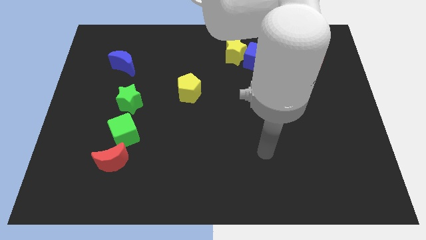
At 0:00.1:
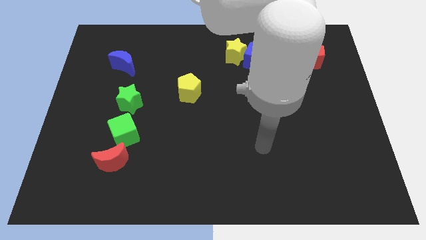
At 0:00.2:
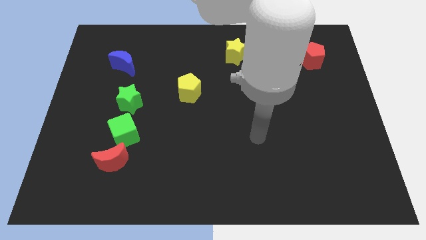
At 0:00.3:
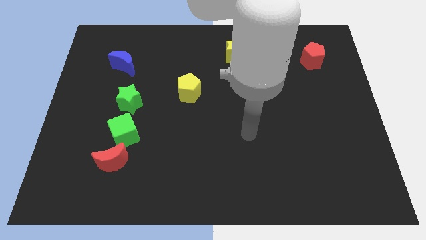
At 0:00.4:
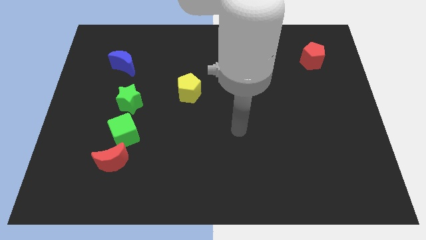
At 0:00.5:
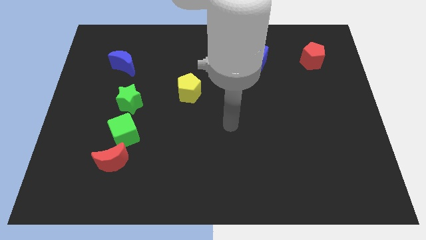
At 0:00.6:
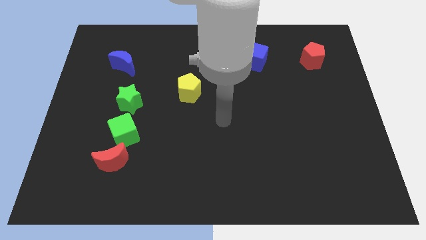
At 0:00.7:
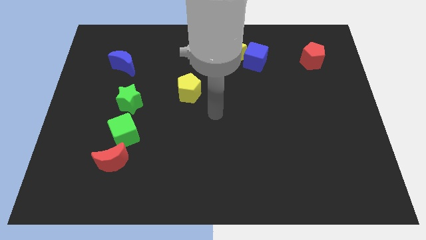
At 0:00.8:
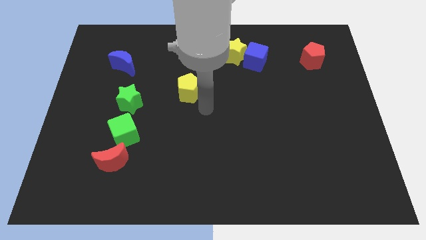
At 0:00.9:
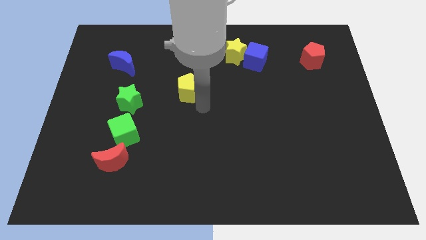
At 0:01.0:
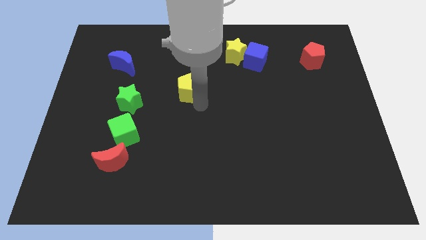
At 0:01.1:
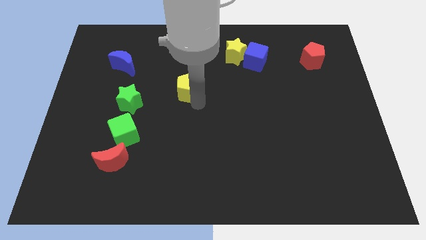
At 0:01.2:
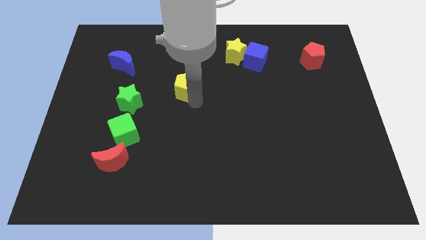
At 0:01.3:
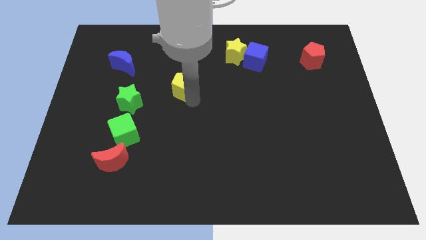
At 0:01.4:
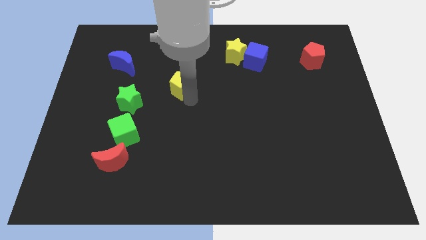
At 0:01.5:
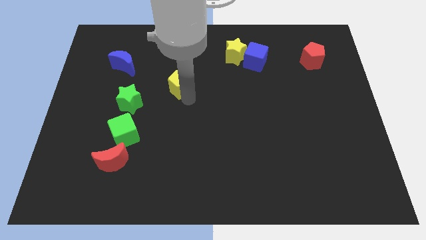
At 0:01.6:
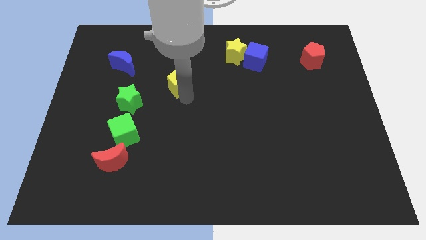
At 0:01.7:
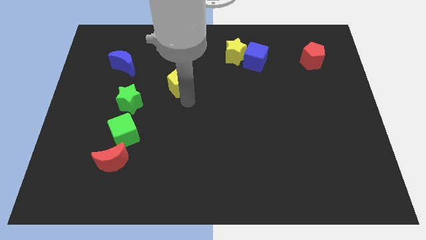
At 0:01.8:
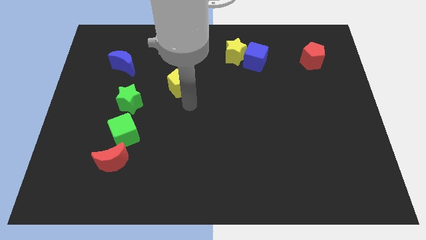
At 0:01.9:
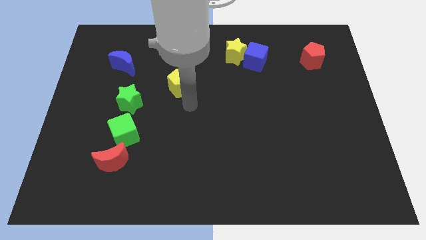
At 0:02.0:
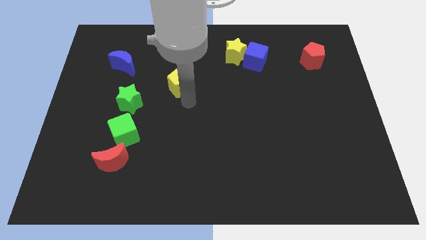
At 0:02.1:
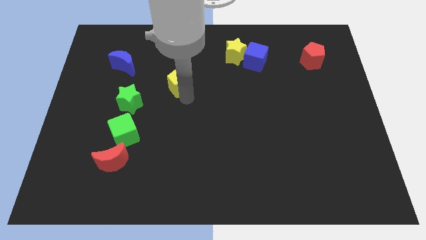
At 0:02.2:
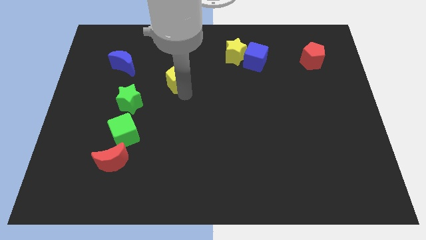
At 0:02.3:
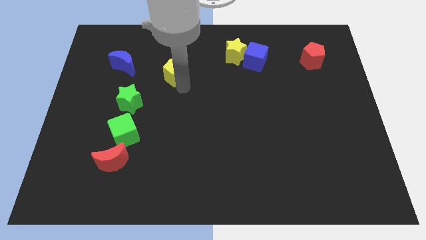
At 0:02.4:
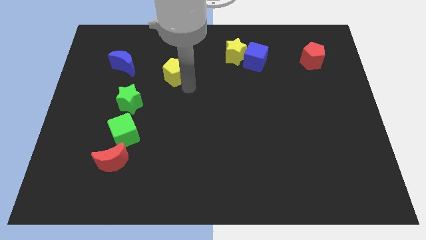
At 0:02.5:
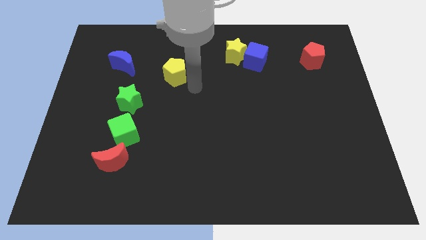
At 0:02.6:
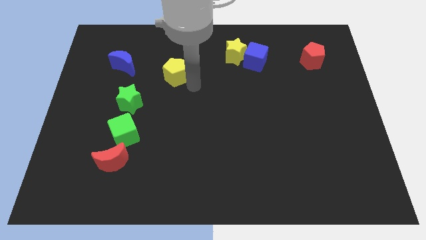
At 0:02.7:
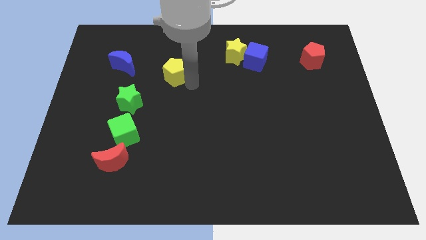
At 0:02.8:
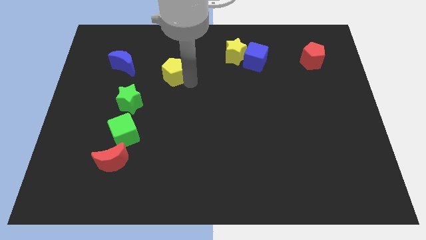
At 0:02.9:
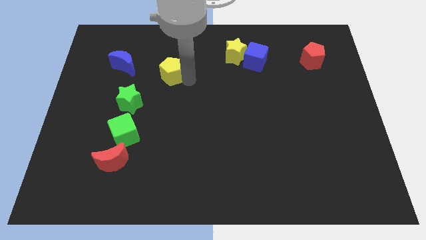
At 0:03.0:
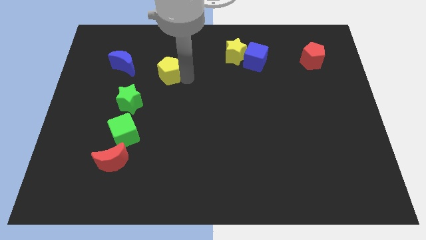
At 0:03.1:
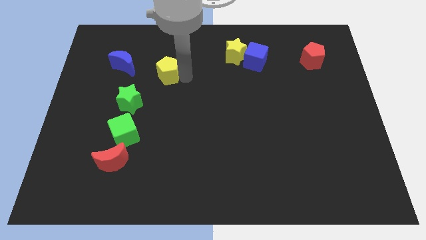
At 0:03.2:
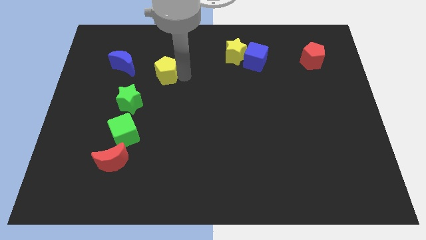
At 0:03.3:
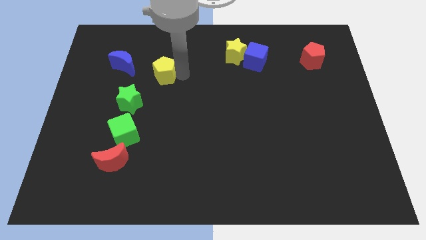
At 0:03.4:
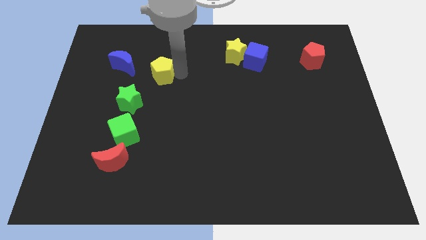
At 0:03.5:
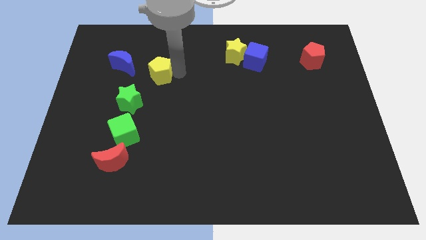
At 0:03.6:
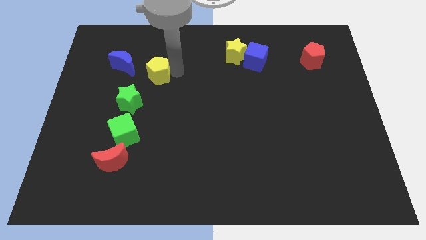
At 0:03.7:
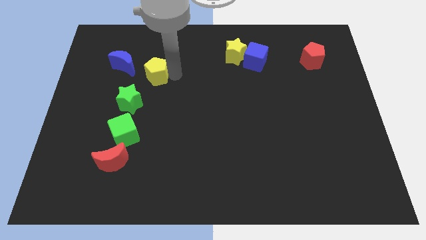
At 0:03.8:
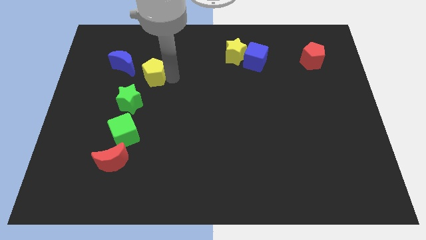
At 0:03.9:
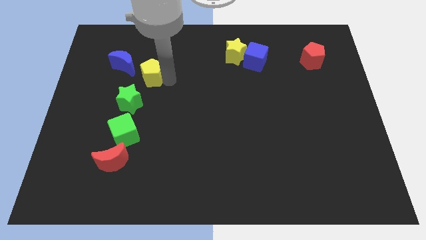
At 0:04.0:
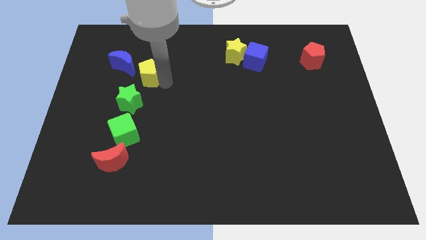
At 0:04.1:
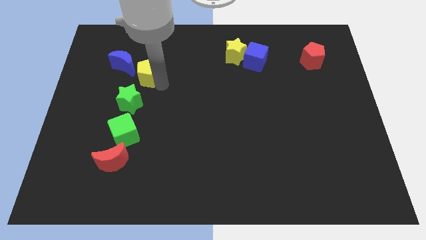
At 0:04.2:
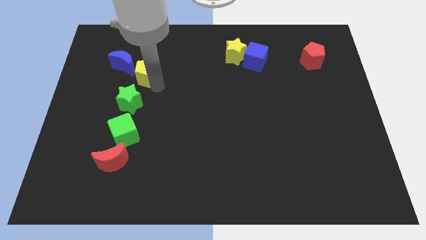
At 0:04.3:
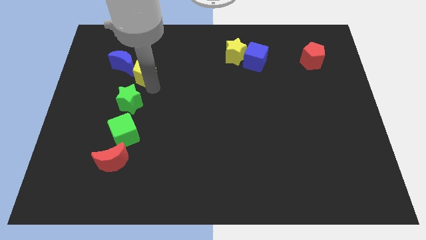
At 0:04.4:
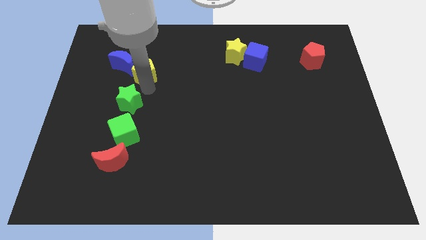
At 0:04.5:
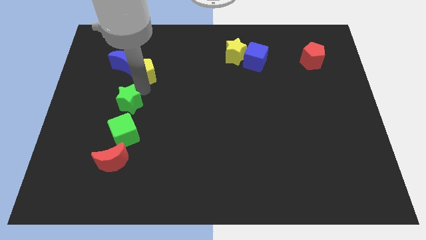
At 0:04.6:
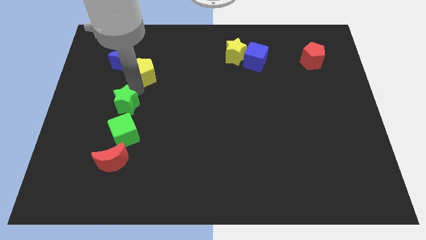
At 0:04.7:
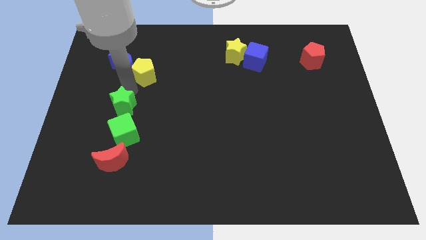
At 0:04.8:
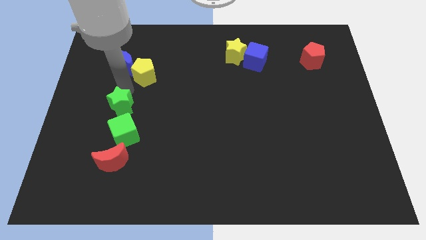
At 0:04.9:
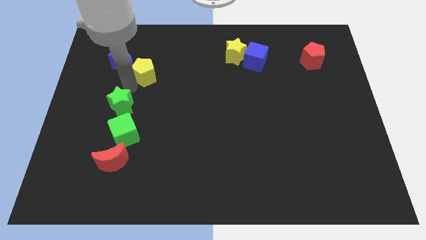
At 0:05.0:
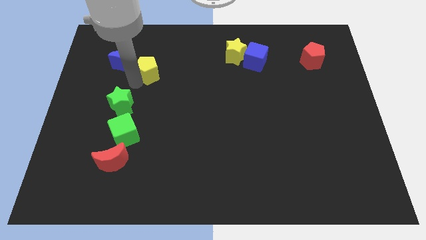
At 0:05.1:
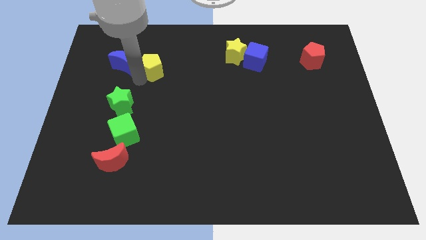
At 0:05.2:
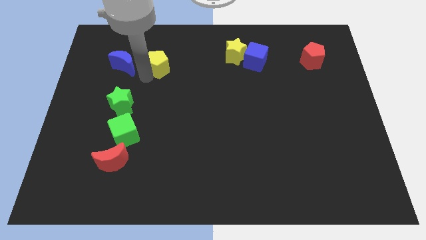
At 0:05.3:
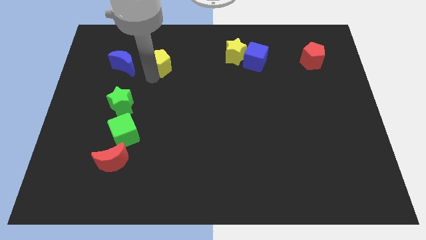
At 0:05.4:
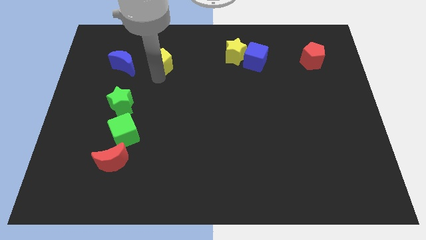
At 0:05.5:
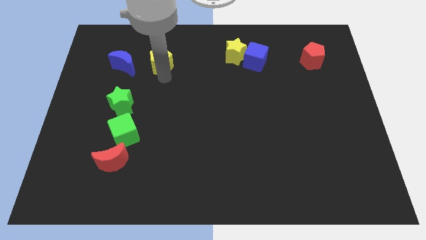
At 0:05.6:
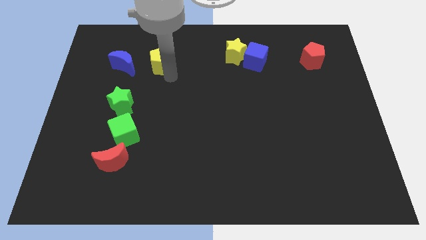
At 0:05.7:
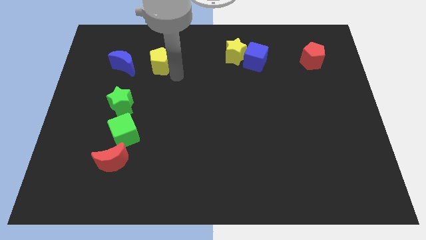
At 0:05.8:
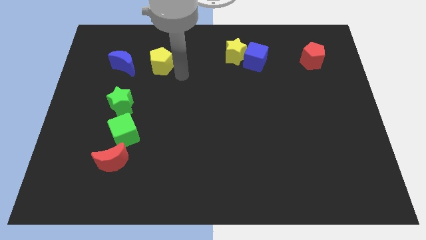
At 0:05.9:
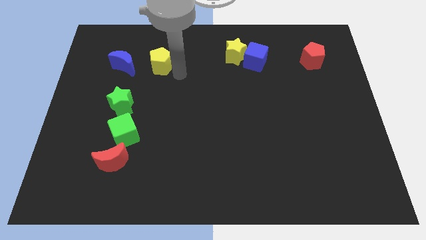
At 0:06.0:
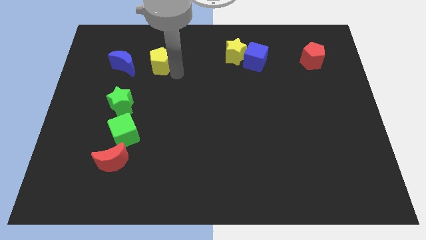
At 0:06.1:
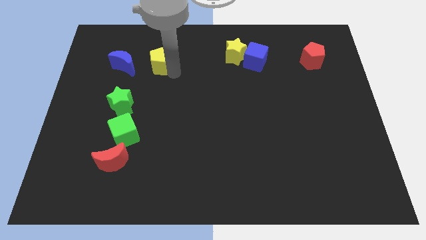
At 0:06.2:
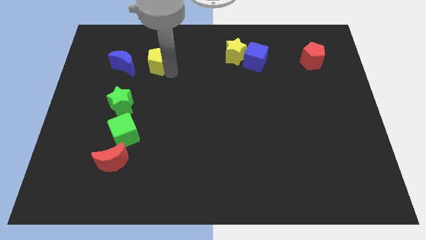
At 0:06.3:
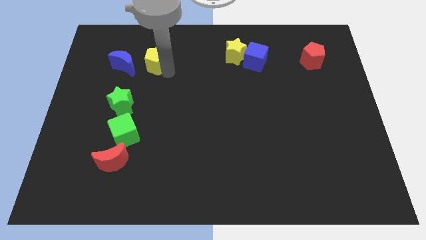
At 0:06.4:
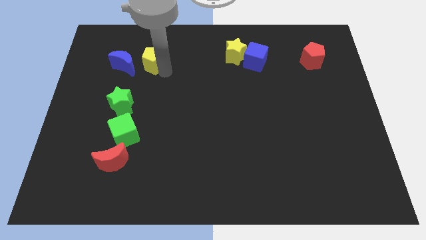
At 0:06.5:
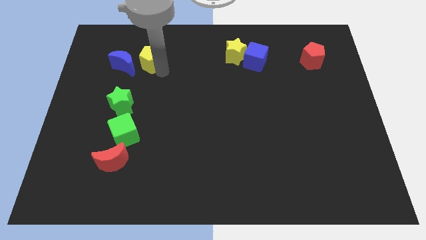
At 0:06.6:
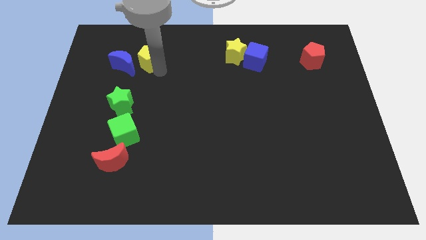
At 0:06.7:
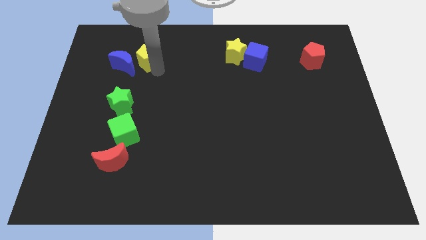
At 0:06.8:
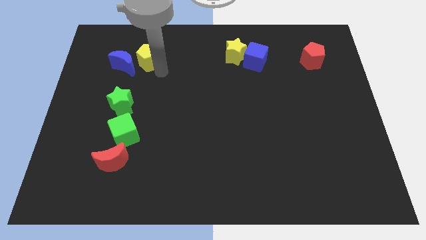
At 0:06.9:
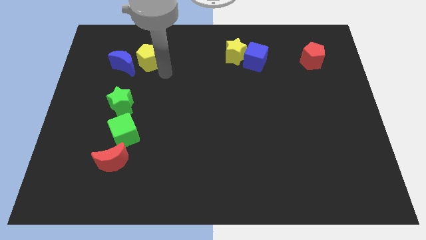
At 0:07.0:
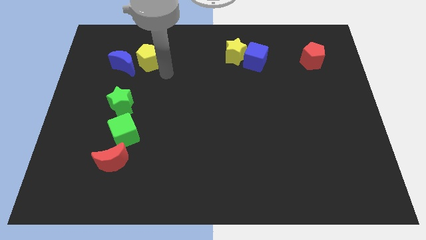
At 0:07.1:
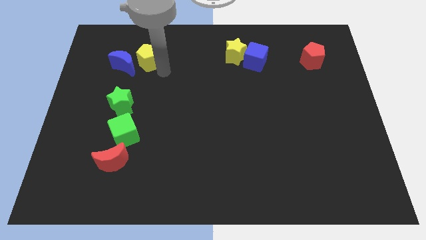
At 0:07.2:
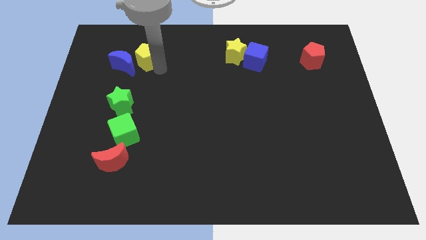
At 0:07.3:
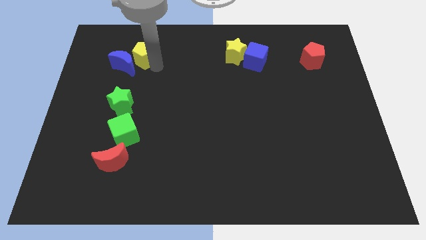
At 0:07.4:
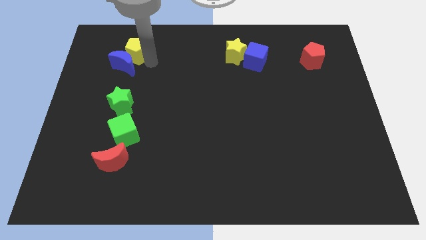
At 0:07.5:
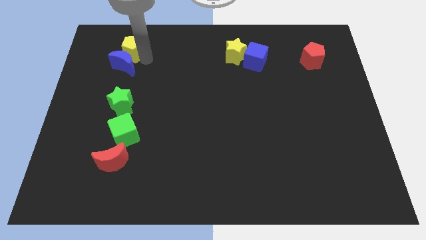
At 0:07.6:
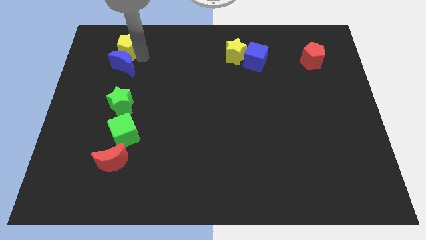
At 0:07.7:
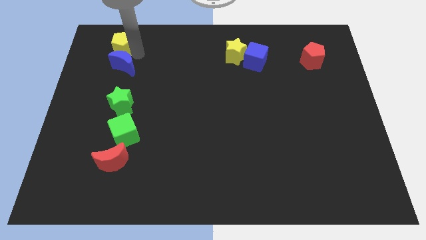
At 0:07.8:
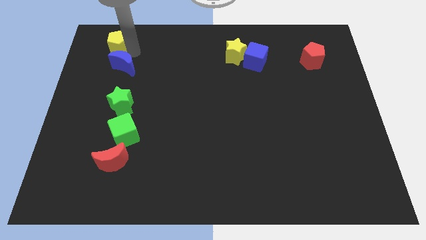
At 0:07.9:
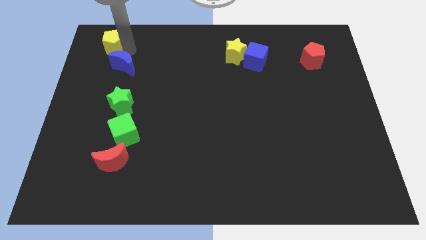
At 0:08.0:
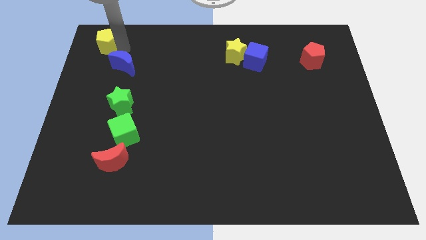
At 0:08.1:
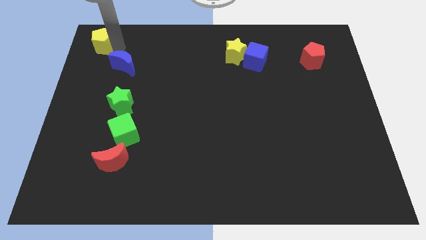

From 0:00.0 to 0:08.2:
move the yellow pentagon to the upper left corner
